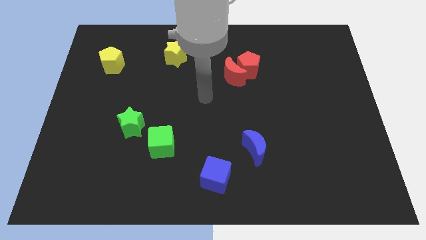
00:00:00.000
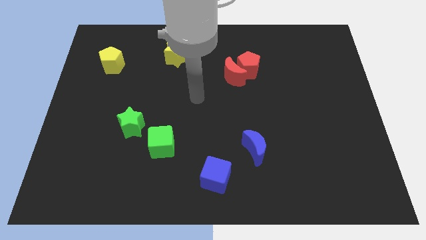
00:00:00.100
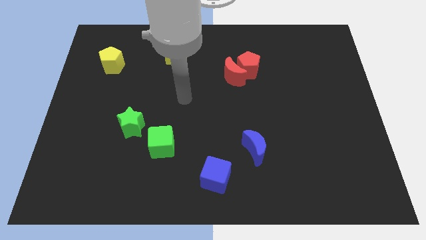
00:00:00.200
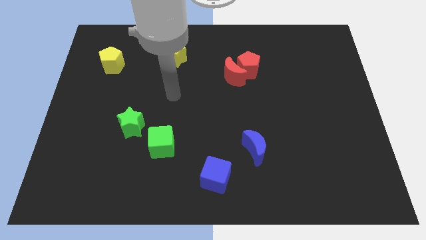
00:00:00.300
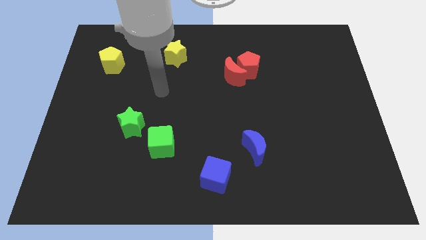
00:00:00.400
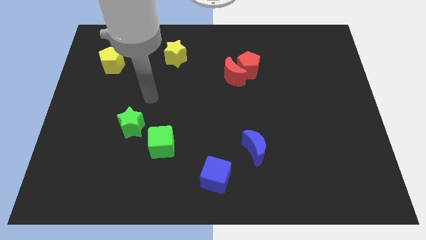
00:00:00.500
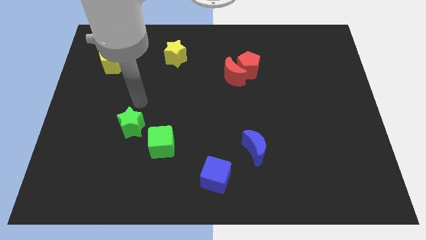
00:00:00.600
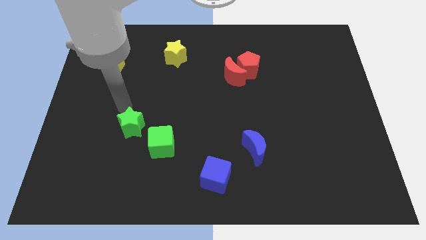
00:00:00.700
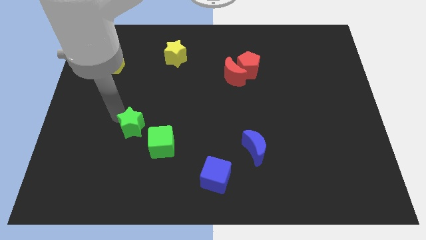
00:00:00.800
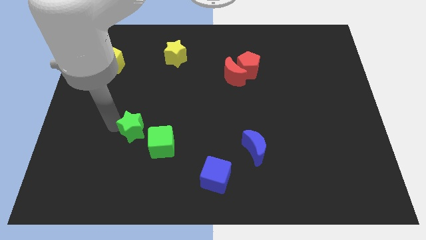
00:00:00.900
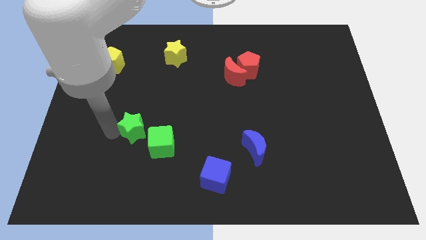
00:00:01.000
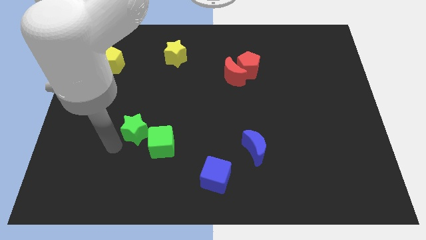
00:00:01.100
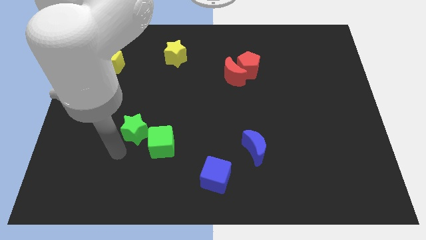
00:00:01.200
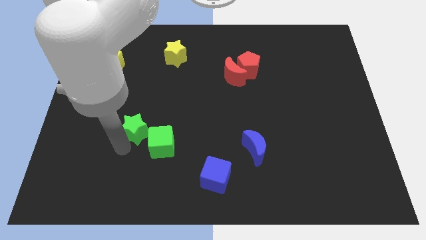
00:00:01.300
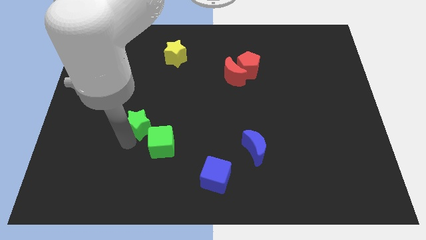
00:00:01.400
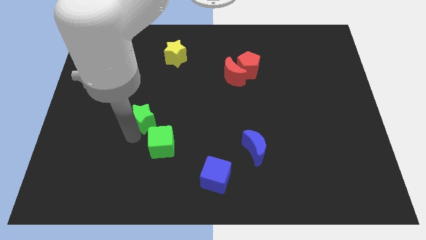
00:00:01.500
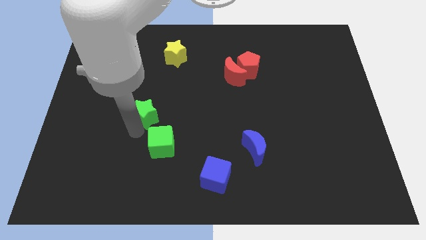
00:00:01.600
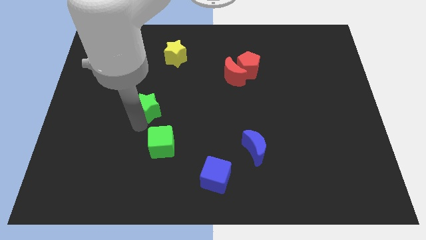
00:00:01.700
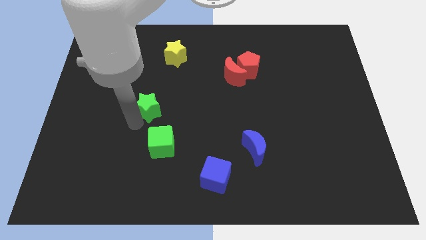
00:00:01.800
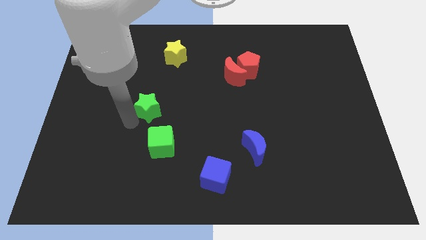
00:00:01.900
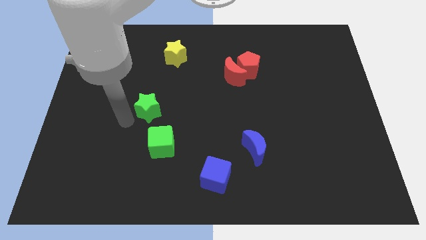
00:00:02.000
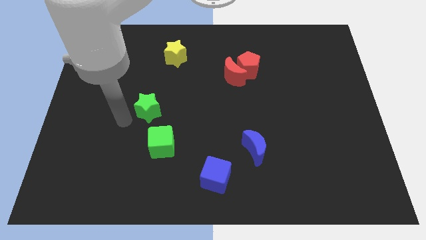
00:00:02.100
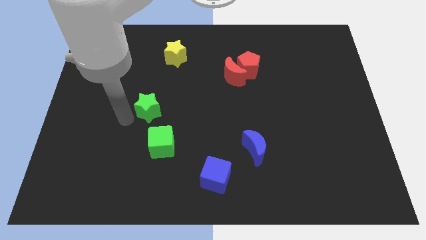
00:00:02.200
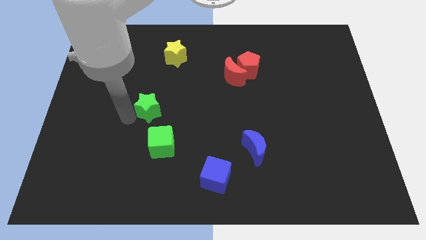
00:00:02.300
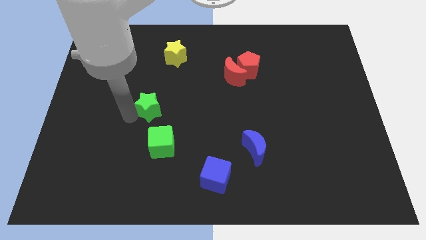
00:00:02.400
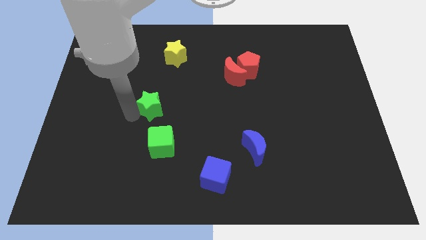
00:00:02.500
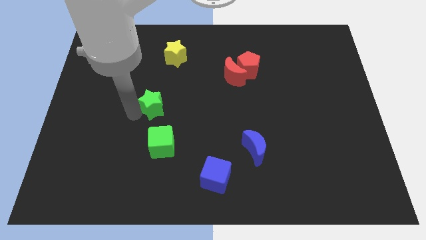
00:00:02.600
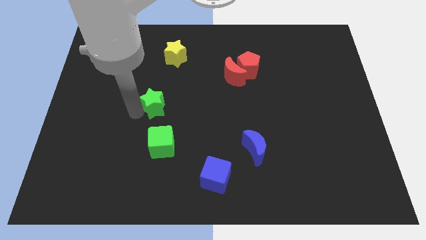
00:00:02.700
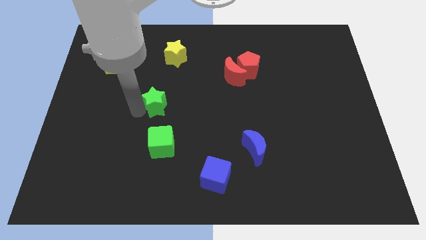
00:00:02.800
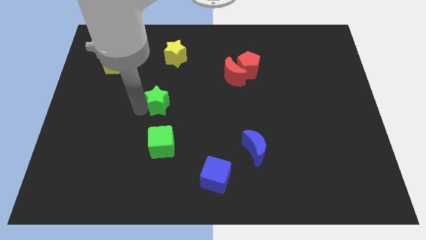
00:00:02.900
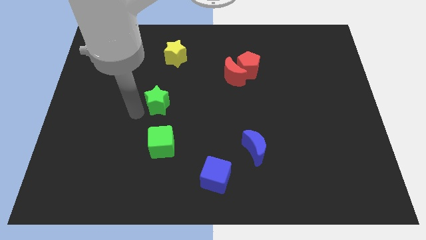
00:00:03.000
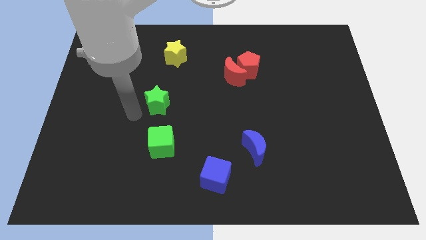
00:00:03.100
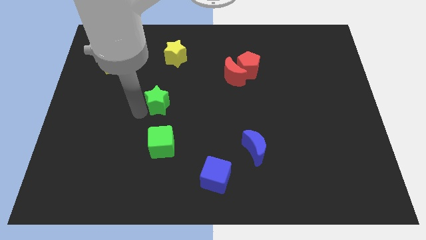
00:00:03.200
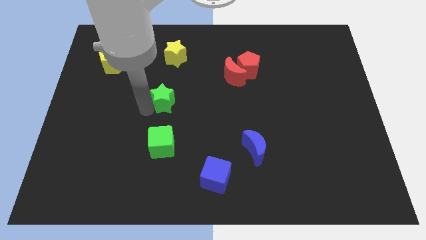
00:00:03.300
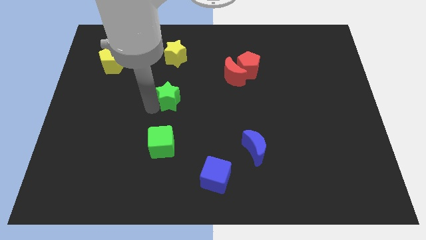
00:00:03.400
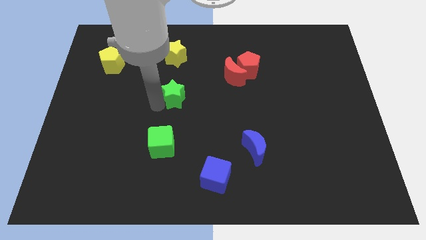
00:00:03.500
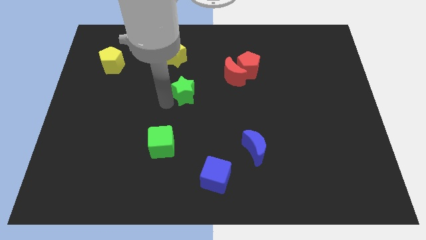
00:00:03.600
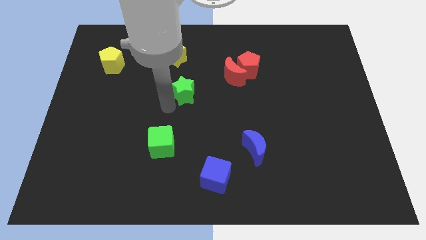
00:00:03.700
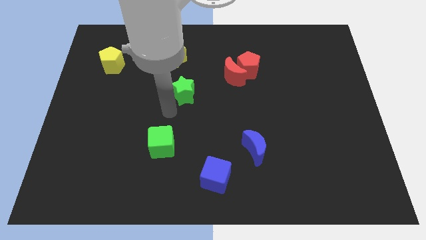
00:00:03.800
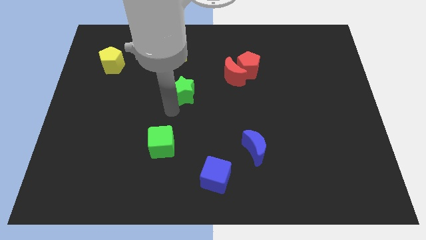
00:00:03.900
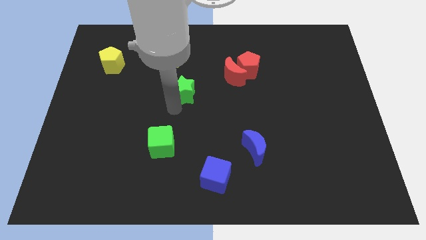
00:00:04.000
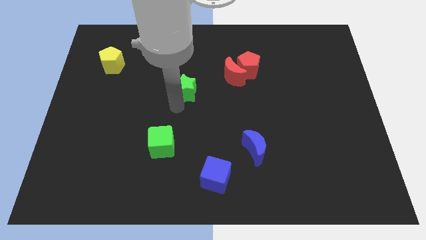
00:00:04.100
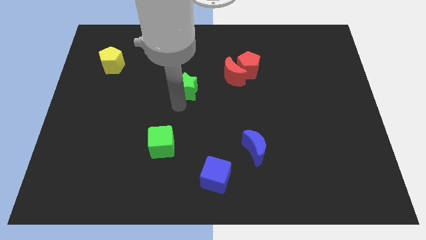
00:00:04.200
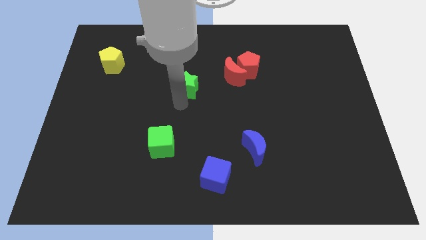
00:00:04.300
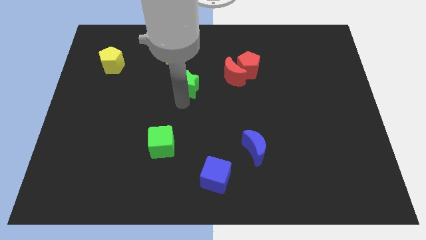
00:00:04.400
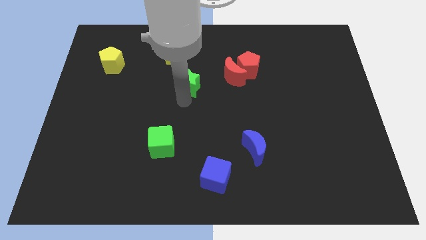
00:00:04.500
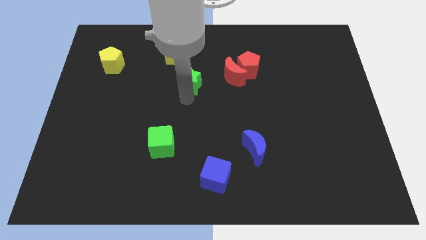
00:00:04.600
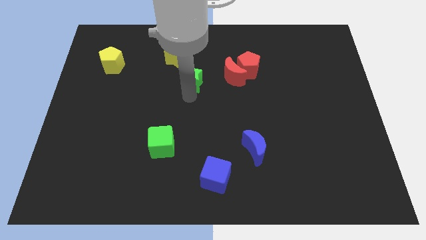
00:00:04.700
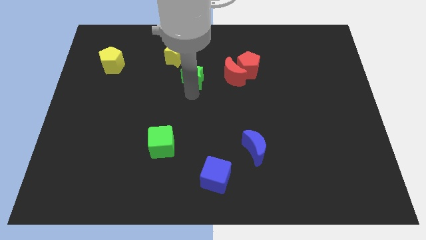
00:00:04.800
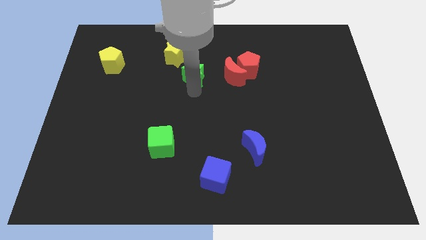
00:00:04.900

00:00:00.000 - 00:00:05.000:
move the green star up and to the right

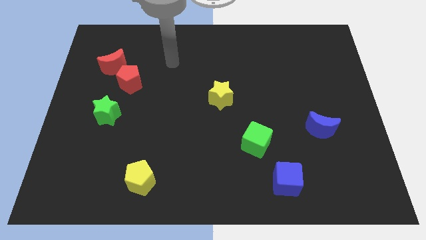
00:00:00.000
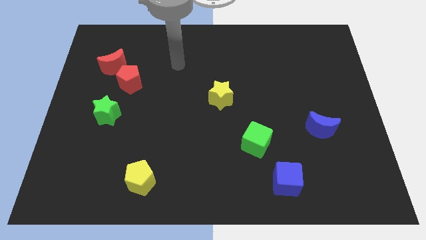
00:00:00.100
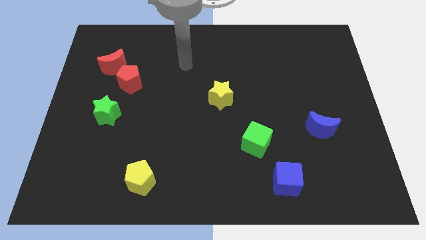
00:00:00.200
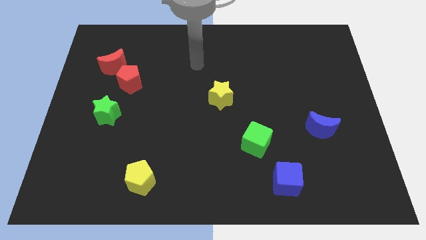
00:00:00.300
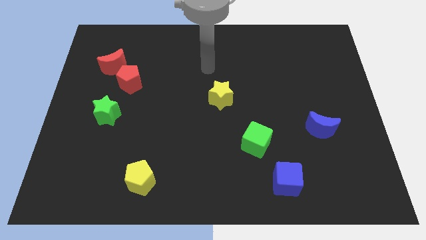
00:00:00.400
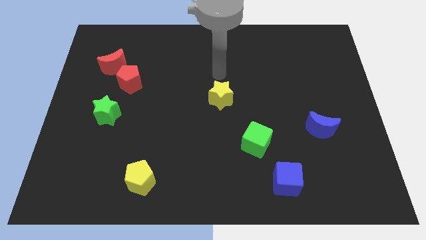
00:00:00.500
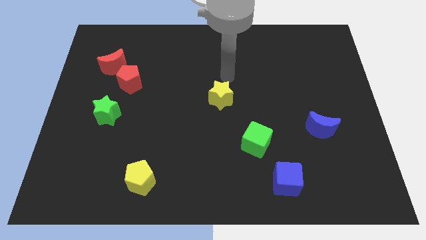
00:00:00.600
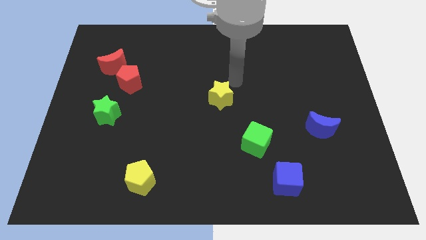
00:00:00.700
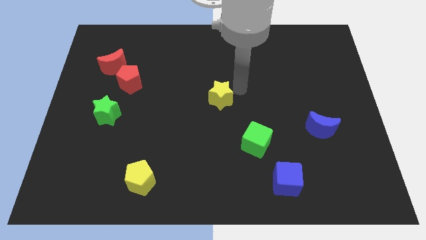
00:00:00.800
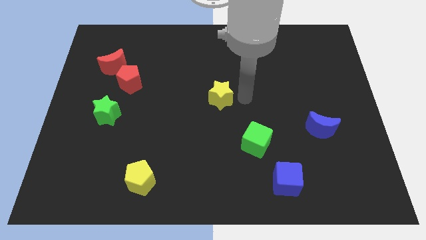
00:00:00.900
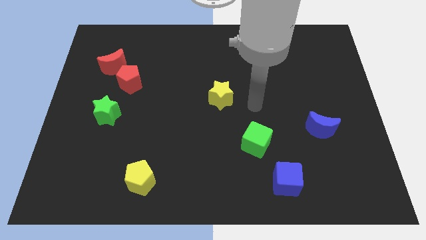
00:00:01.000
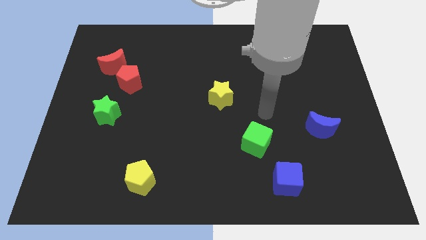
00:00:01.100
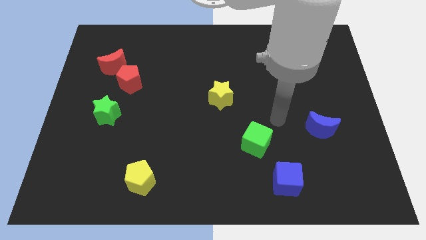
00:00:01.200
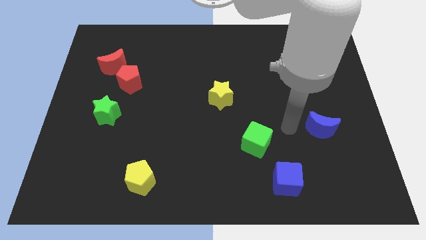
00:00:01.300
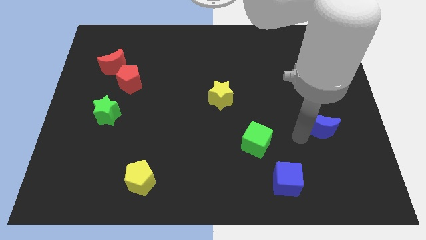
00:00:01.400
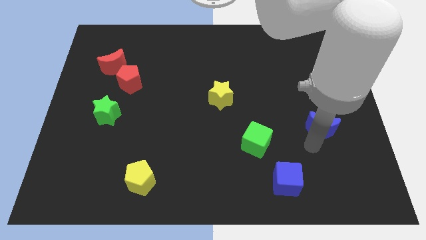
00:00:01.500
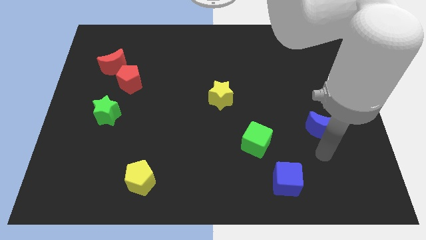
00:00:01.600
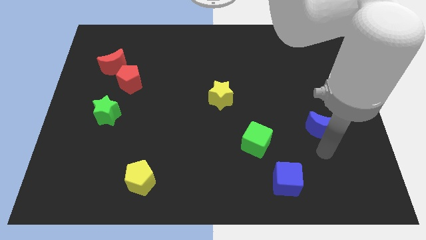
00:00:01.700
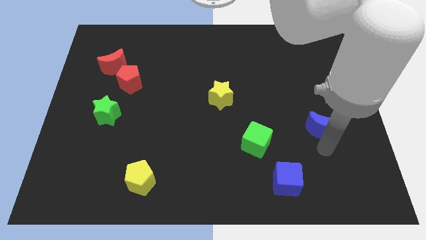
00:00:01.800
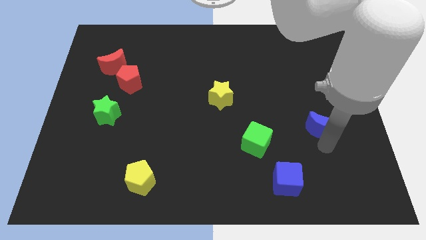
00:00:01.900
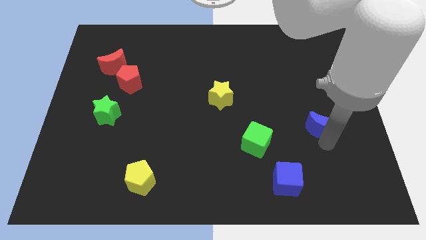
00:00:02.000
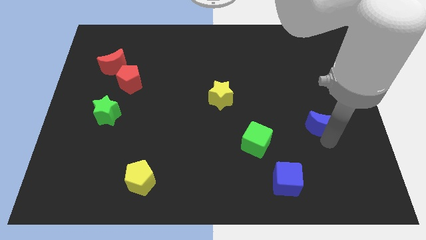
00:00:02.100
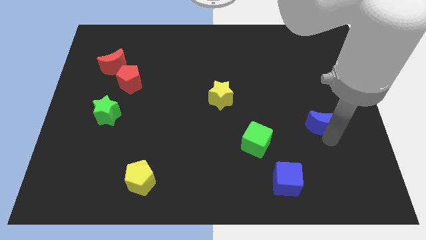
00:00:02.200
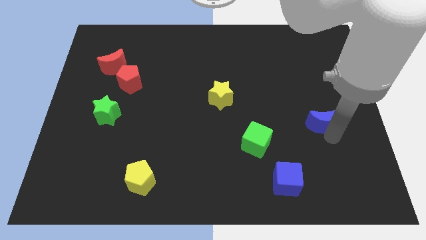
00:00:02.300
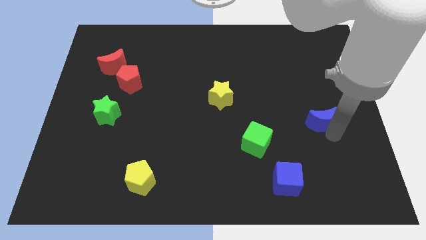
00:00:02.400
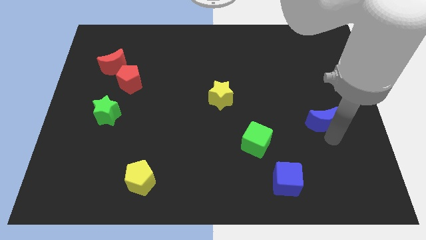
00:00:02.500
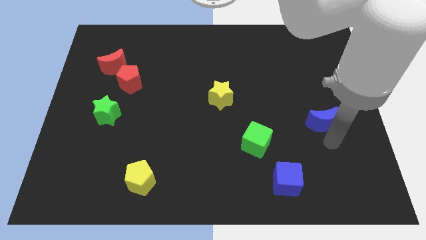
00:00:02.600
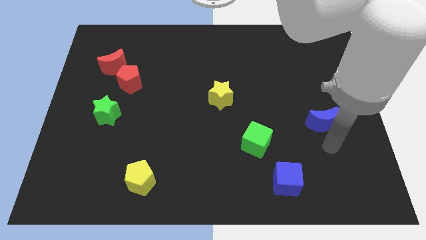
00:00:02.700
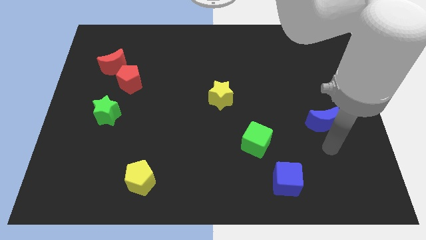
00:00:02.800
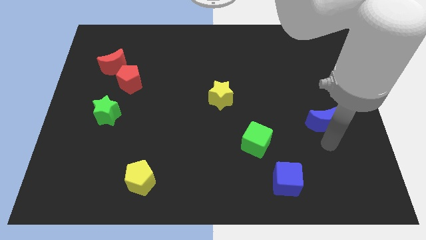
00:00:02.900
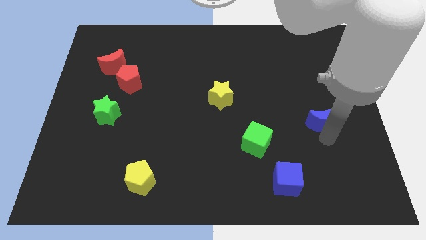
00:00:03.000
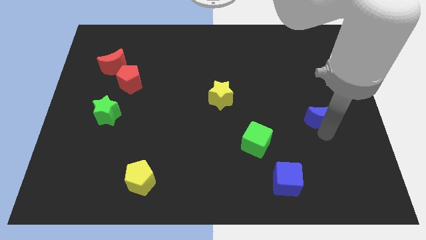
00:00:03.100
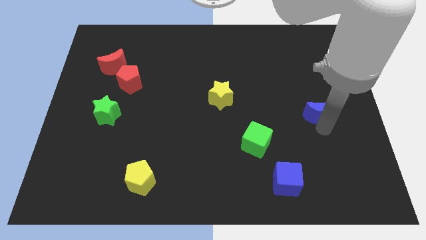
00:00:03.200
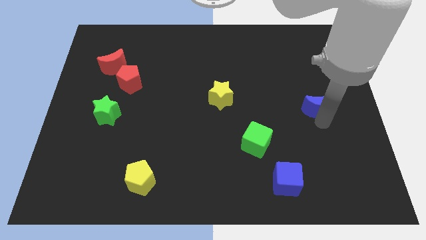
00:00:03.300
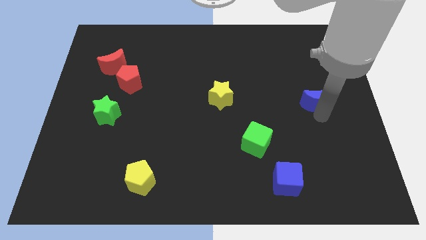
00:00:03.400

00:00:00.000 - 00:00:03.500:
push the blue moon up somewhat
